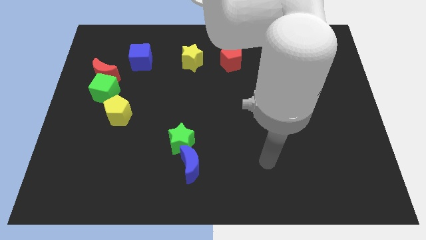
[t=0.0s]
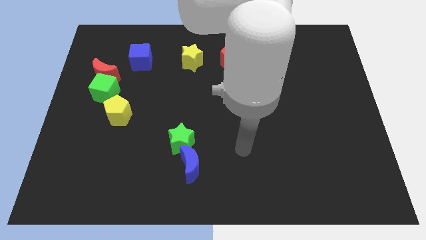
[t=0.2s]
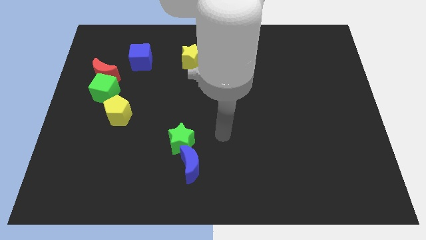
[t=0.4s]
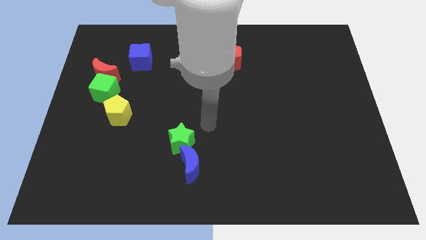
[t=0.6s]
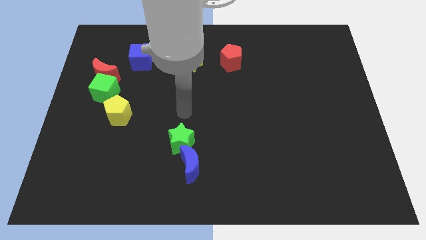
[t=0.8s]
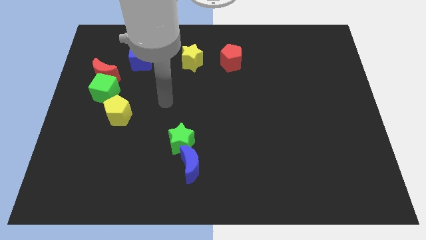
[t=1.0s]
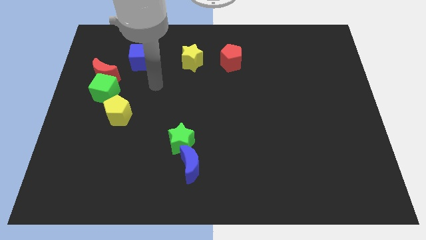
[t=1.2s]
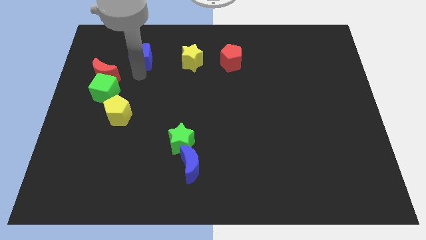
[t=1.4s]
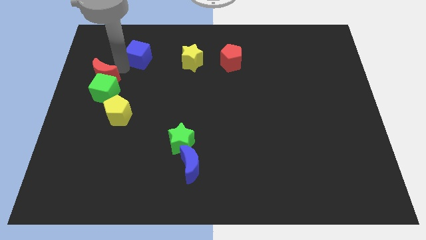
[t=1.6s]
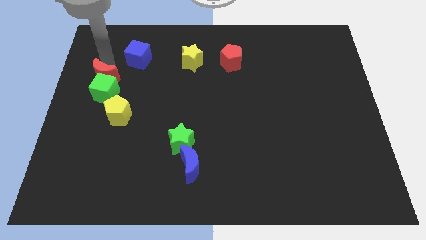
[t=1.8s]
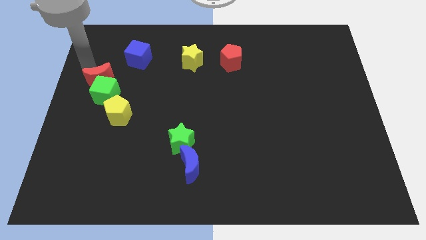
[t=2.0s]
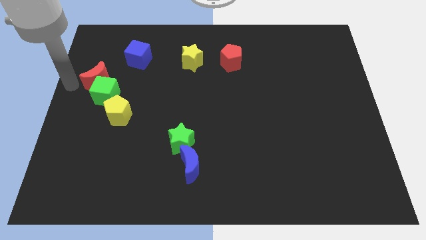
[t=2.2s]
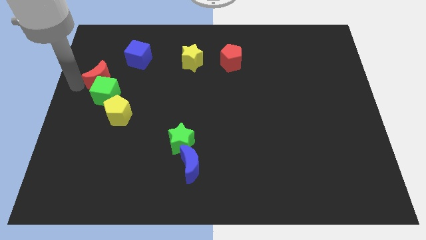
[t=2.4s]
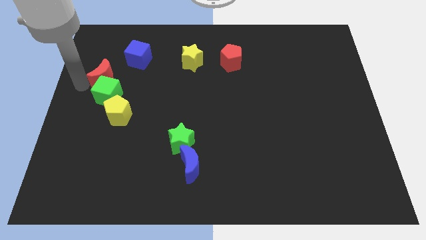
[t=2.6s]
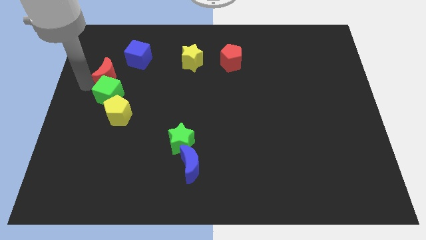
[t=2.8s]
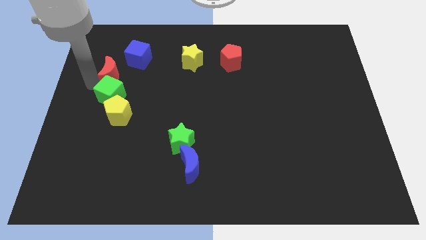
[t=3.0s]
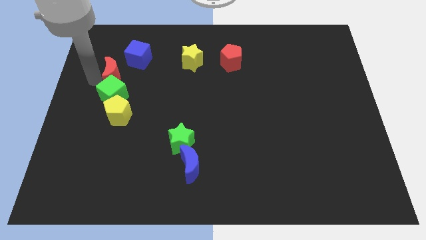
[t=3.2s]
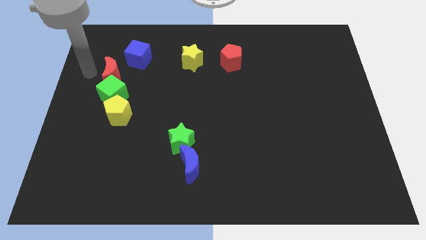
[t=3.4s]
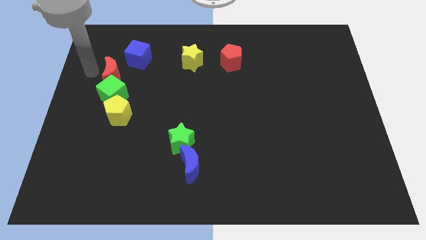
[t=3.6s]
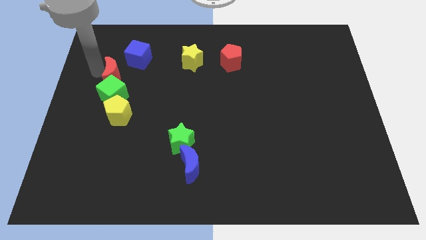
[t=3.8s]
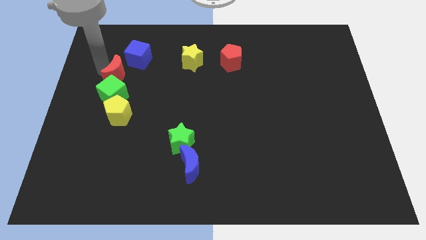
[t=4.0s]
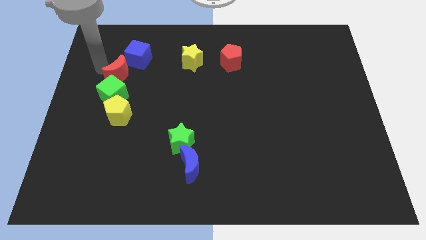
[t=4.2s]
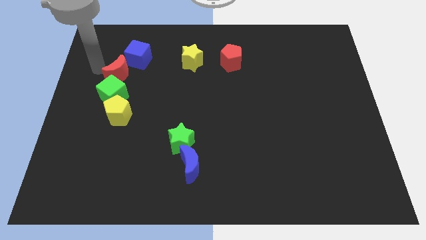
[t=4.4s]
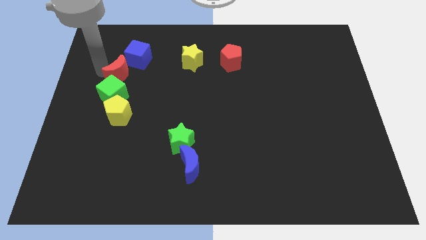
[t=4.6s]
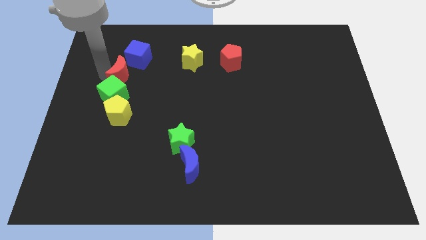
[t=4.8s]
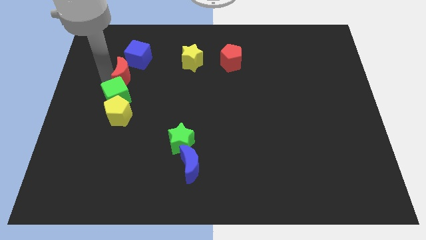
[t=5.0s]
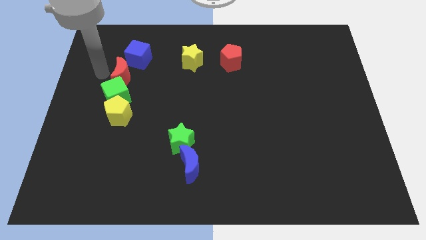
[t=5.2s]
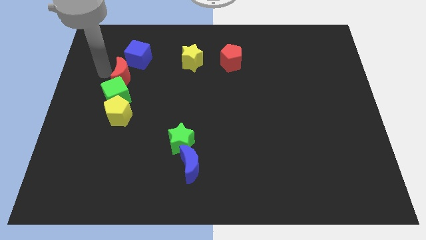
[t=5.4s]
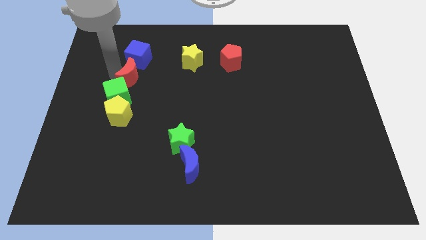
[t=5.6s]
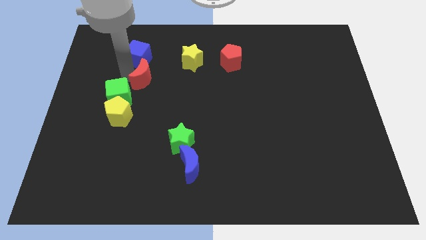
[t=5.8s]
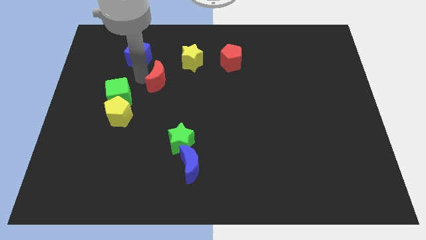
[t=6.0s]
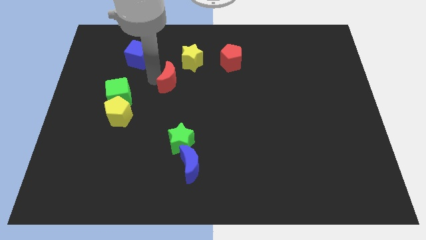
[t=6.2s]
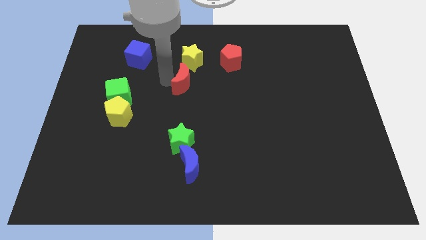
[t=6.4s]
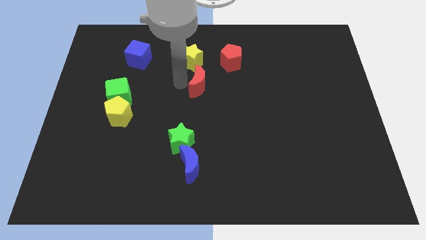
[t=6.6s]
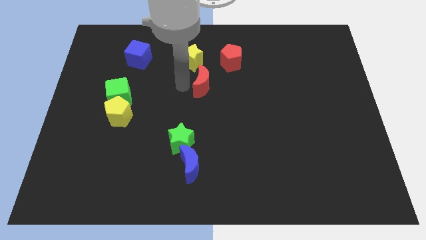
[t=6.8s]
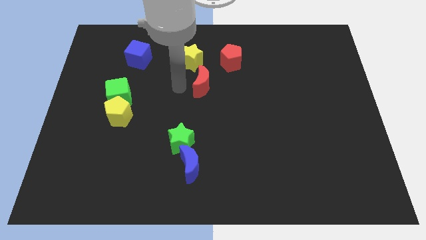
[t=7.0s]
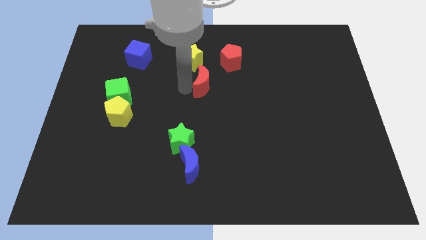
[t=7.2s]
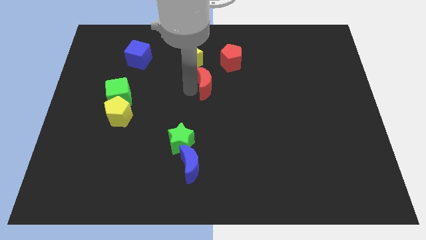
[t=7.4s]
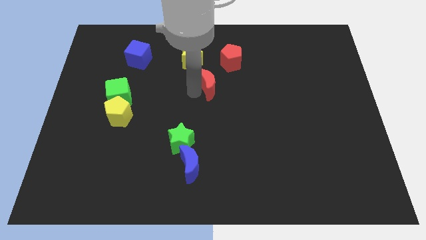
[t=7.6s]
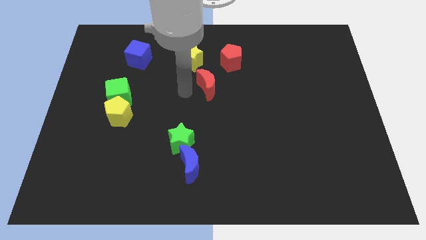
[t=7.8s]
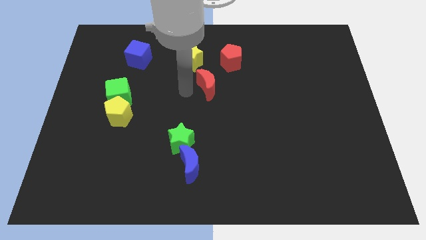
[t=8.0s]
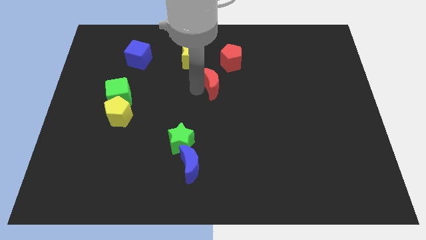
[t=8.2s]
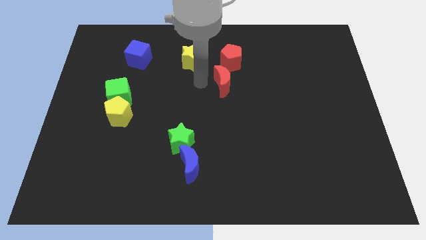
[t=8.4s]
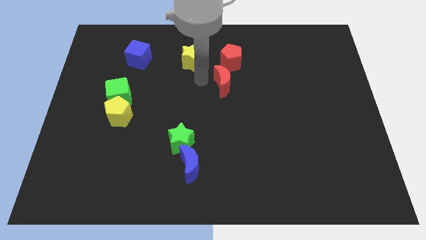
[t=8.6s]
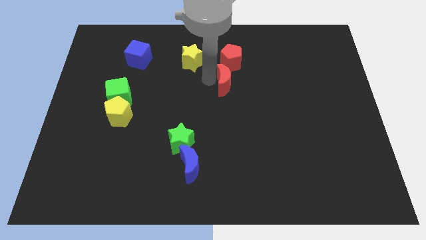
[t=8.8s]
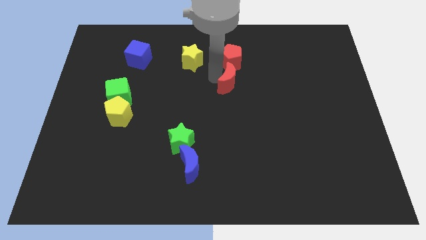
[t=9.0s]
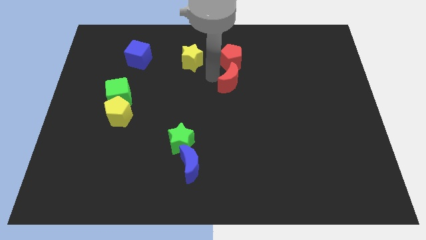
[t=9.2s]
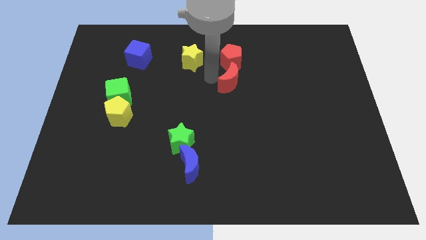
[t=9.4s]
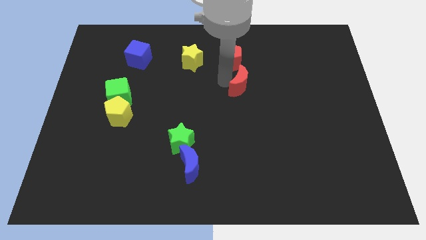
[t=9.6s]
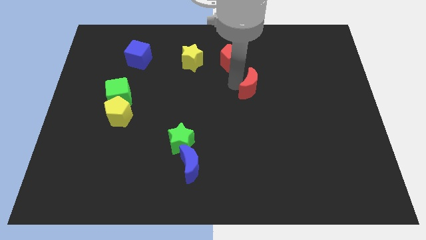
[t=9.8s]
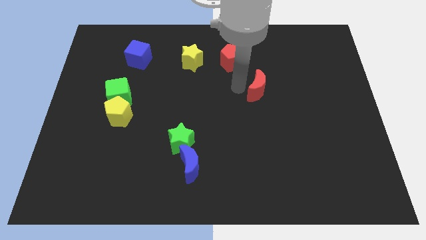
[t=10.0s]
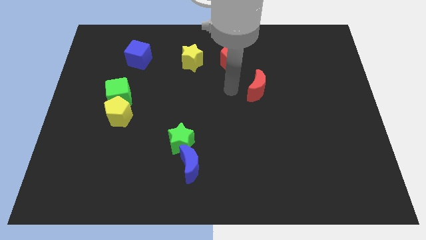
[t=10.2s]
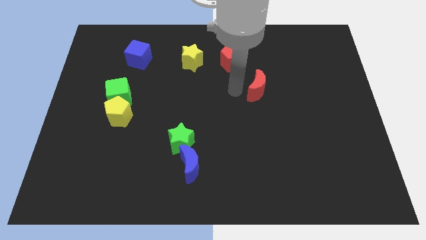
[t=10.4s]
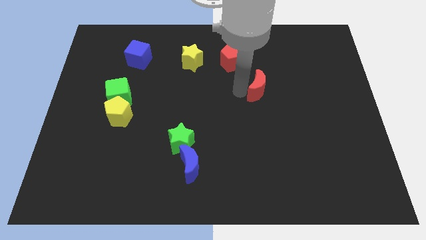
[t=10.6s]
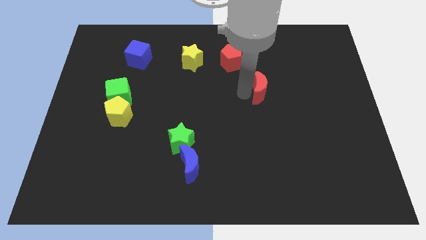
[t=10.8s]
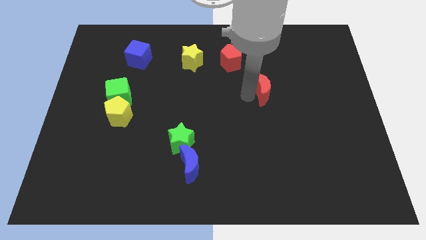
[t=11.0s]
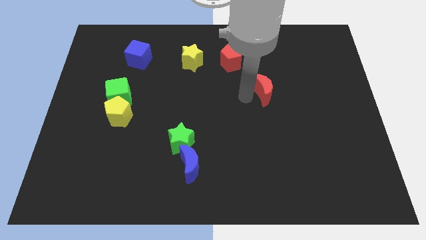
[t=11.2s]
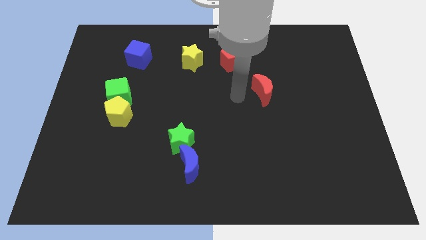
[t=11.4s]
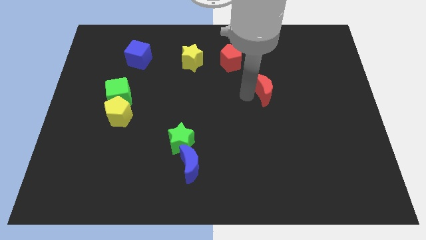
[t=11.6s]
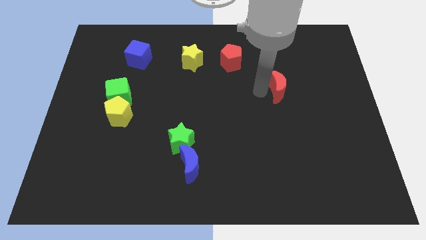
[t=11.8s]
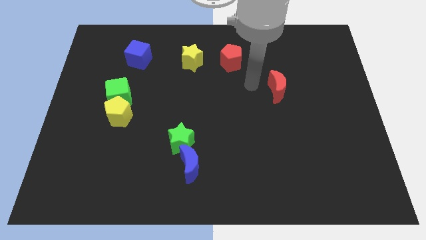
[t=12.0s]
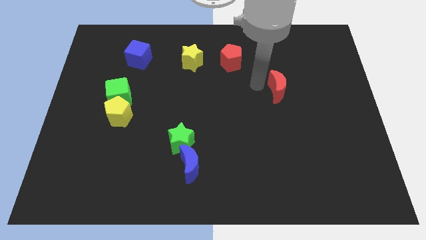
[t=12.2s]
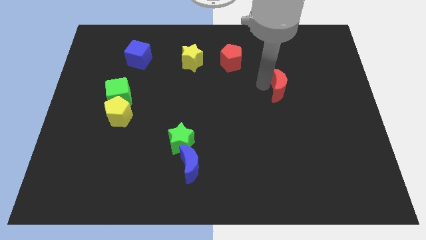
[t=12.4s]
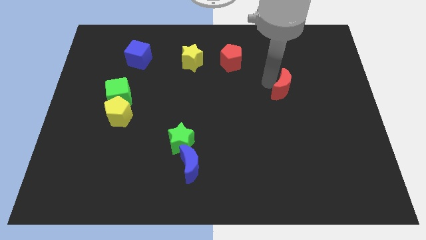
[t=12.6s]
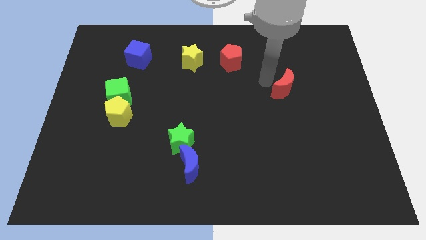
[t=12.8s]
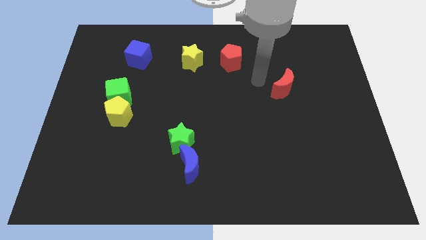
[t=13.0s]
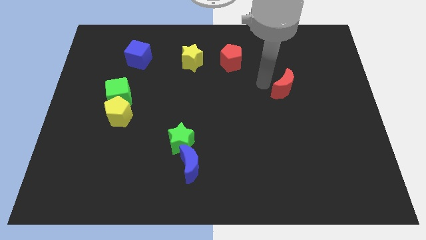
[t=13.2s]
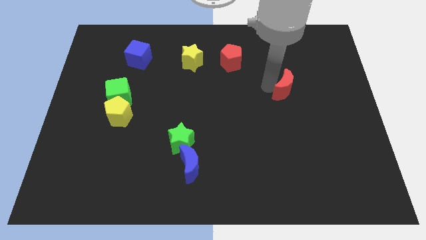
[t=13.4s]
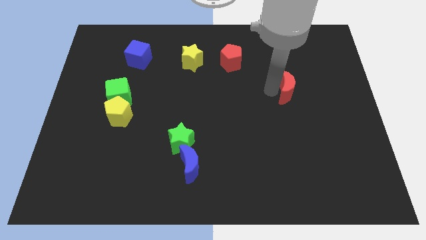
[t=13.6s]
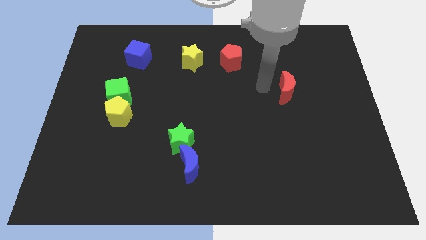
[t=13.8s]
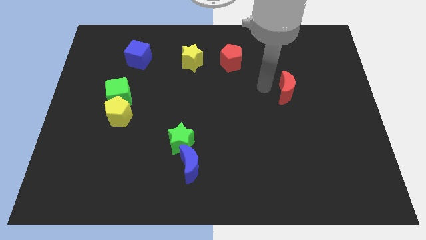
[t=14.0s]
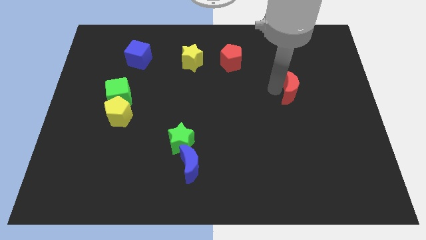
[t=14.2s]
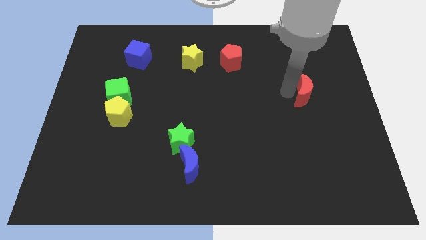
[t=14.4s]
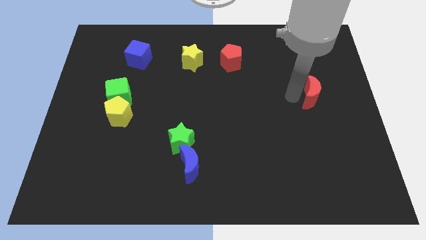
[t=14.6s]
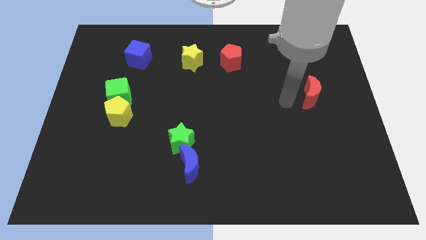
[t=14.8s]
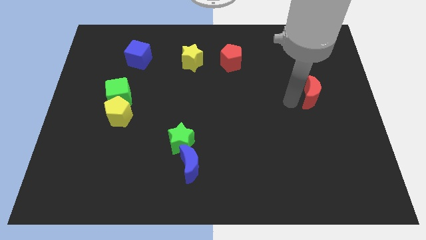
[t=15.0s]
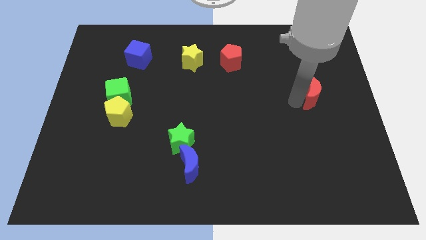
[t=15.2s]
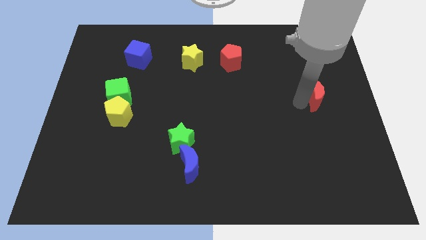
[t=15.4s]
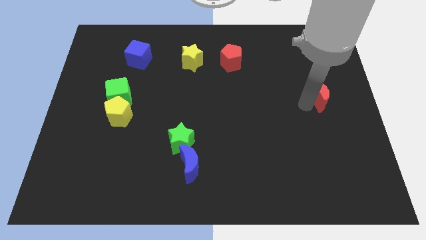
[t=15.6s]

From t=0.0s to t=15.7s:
slide the red moon to the right side
